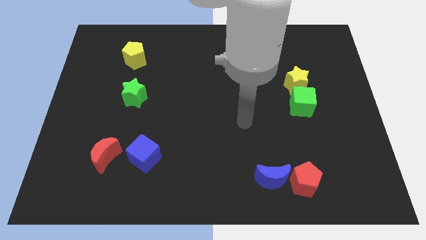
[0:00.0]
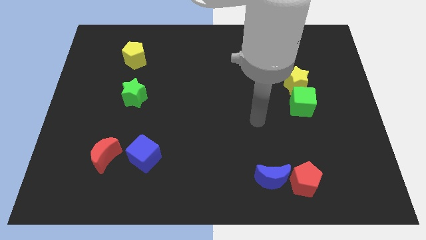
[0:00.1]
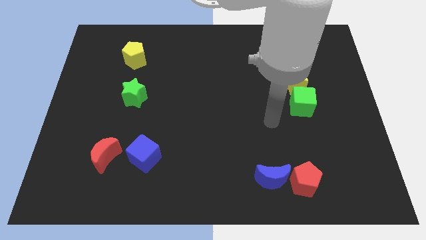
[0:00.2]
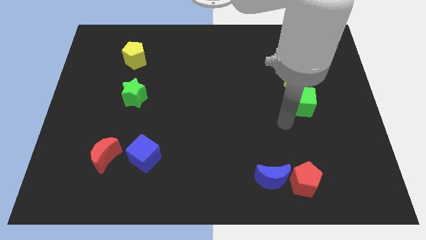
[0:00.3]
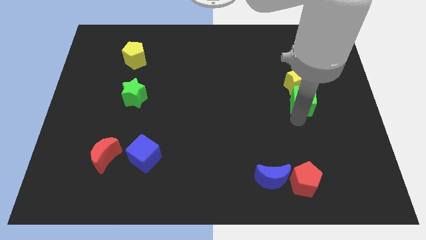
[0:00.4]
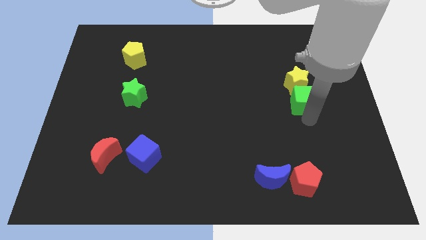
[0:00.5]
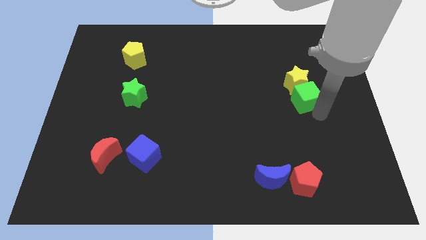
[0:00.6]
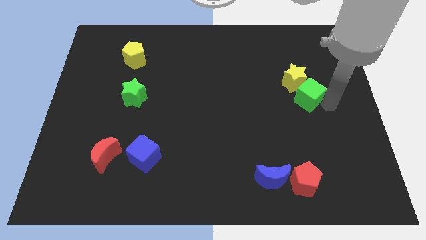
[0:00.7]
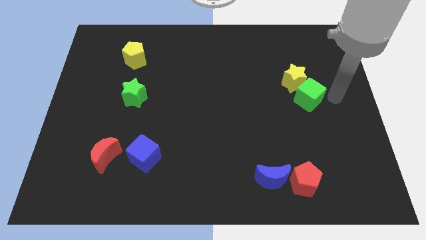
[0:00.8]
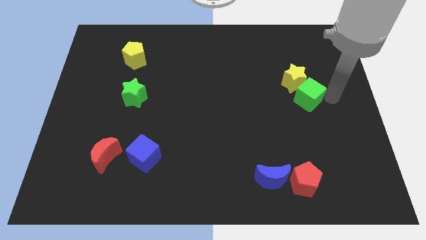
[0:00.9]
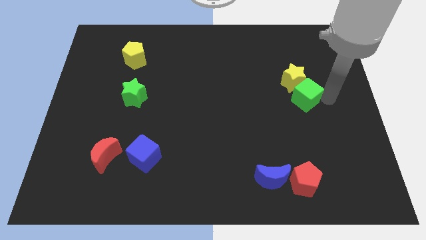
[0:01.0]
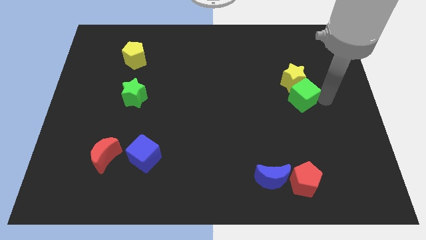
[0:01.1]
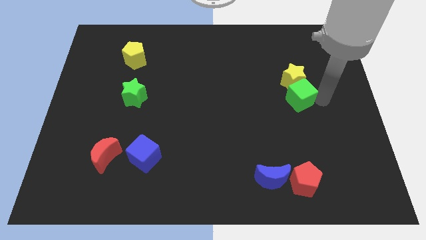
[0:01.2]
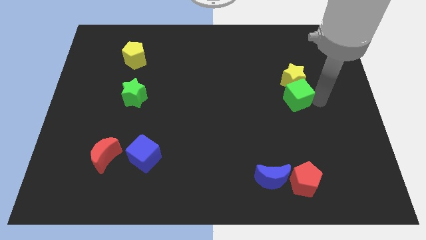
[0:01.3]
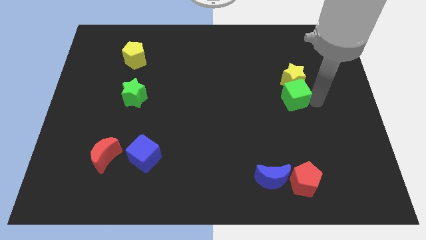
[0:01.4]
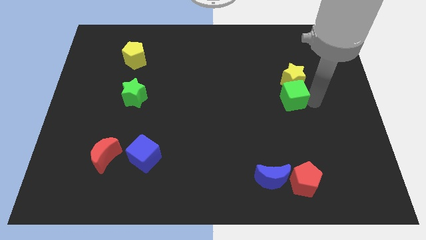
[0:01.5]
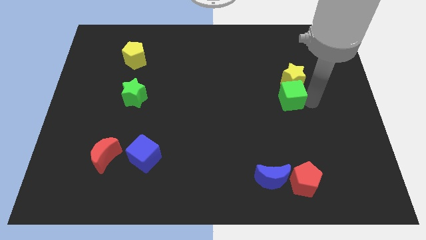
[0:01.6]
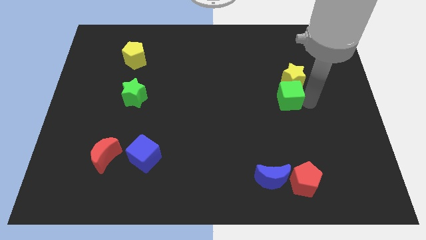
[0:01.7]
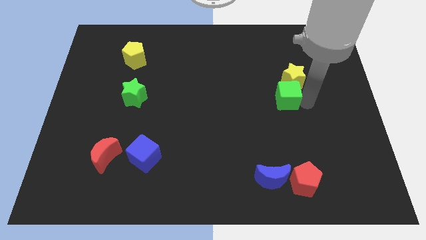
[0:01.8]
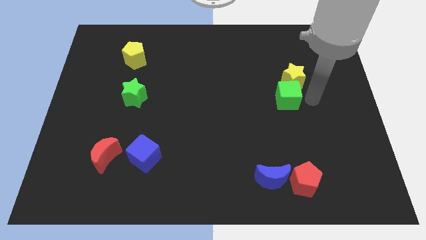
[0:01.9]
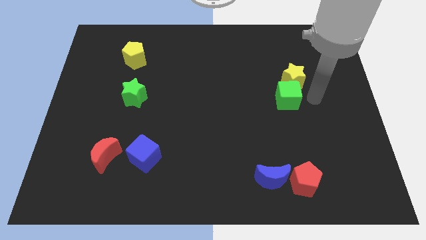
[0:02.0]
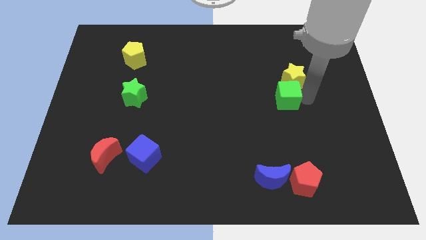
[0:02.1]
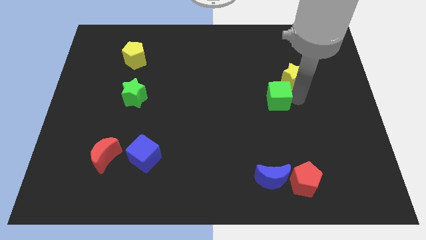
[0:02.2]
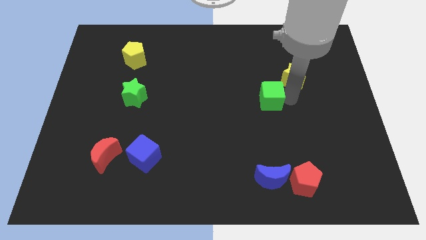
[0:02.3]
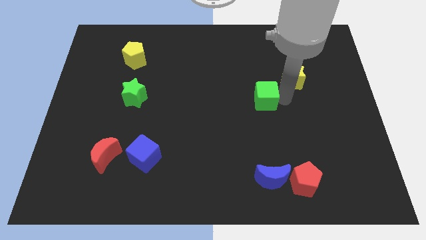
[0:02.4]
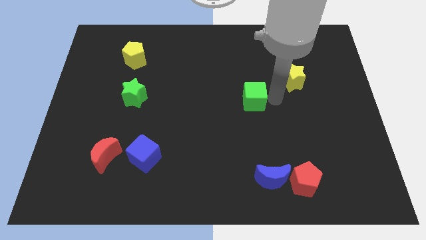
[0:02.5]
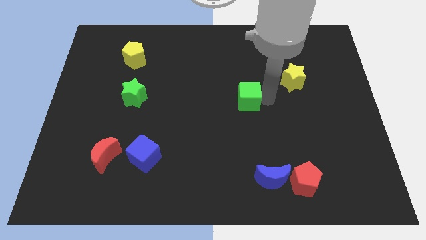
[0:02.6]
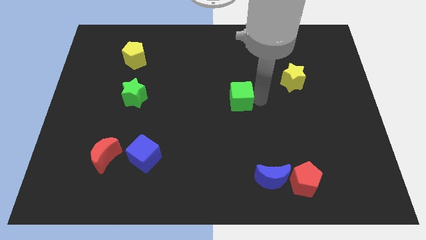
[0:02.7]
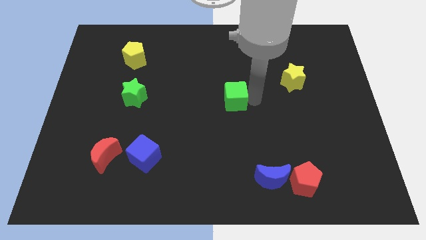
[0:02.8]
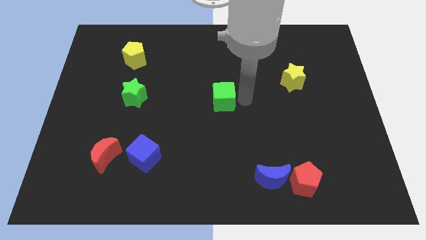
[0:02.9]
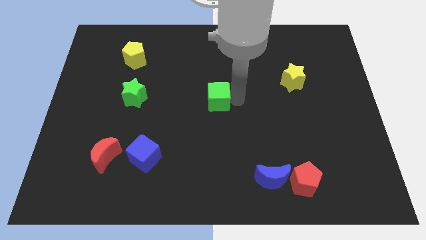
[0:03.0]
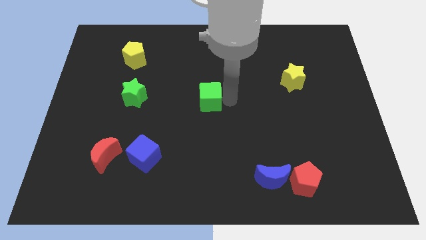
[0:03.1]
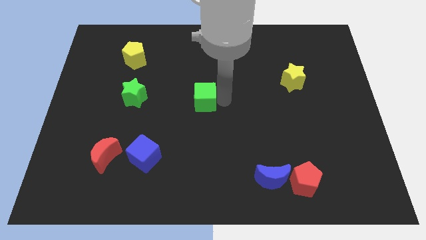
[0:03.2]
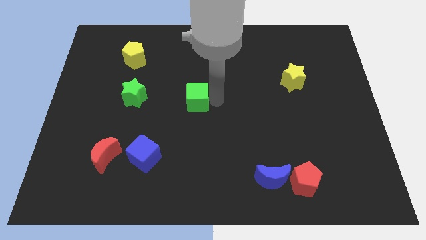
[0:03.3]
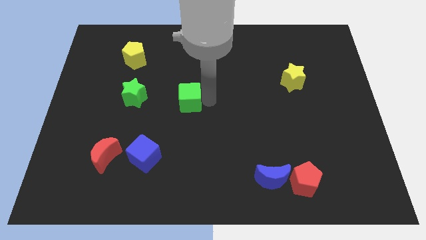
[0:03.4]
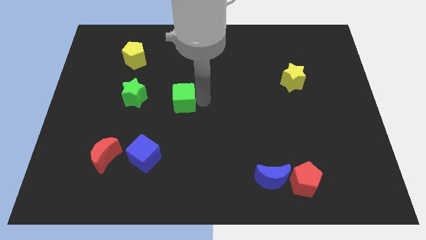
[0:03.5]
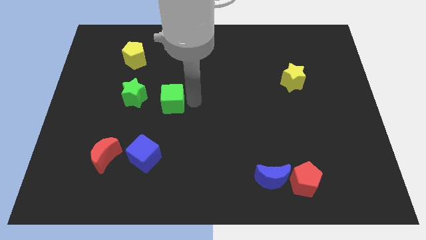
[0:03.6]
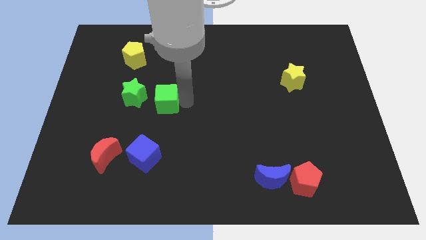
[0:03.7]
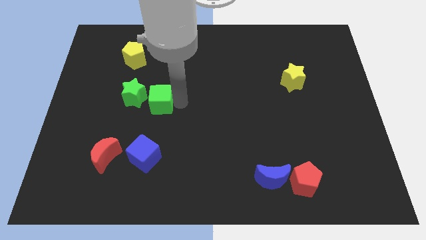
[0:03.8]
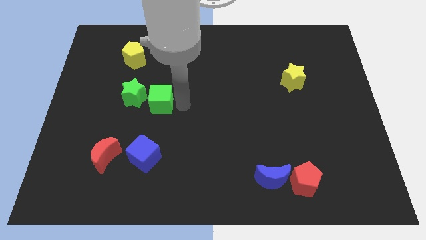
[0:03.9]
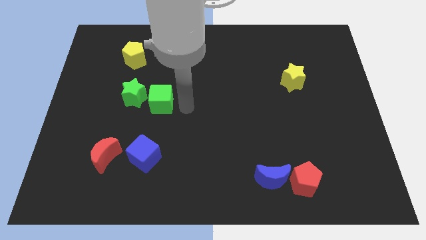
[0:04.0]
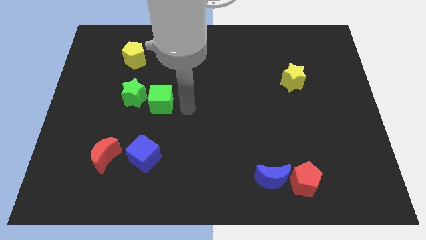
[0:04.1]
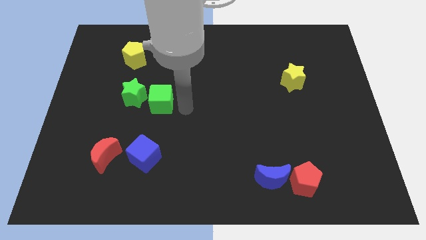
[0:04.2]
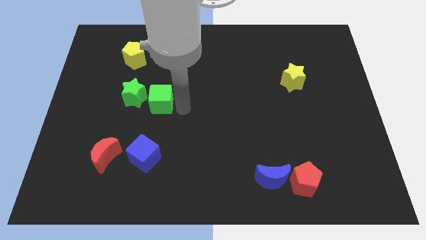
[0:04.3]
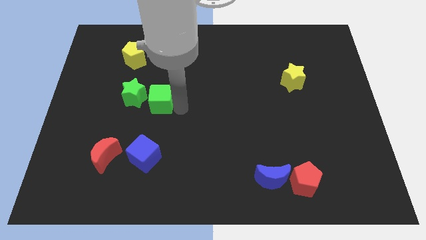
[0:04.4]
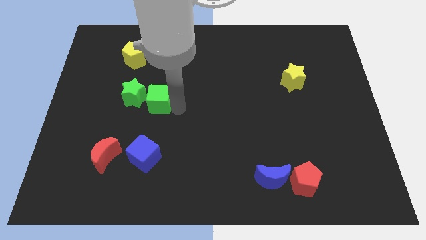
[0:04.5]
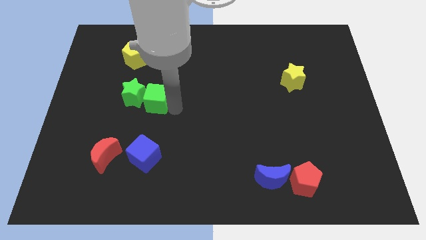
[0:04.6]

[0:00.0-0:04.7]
put the green cube to the green star

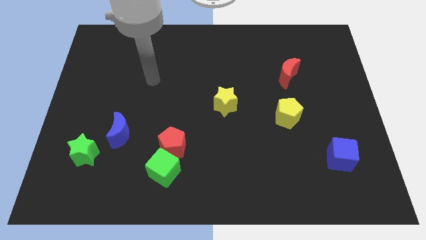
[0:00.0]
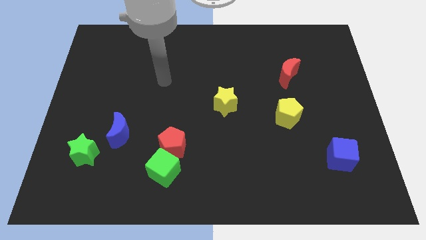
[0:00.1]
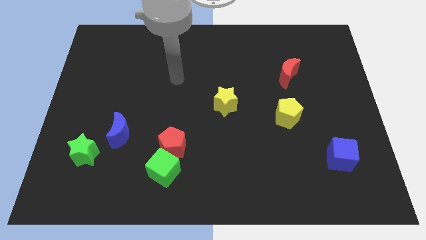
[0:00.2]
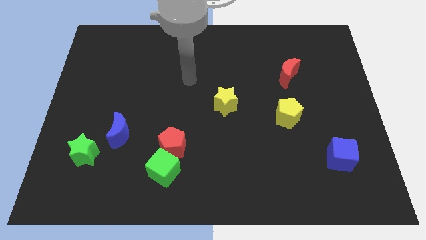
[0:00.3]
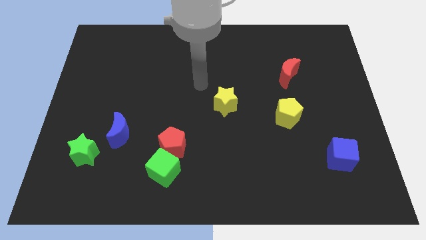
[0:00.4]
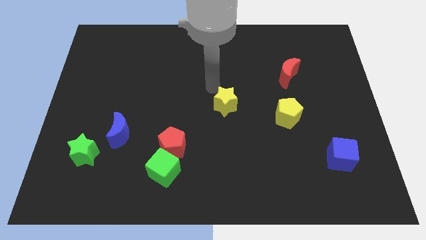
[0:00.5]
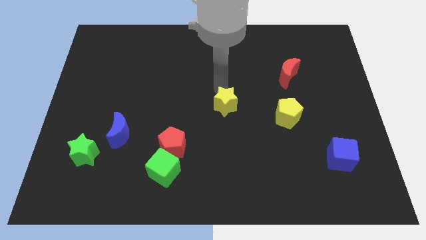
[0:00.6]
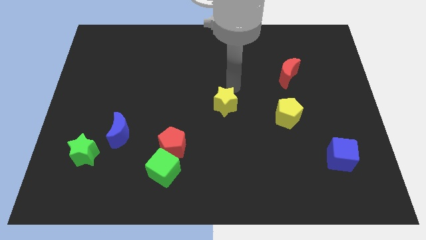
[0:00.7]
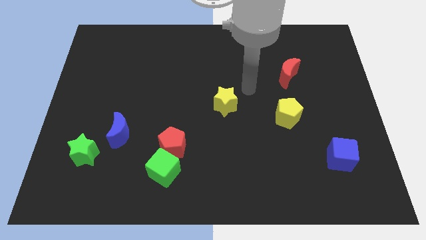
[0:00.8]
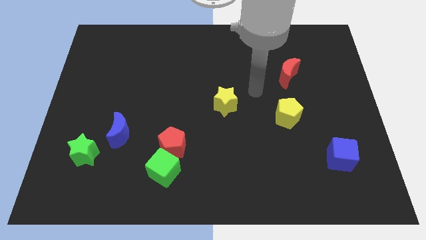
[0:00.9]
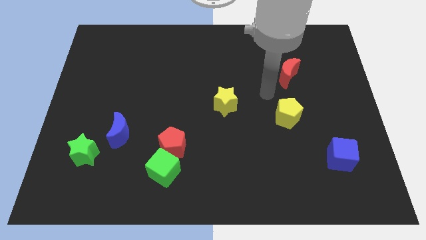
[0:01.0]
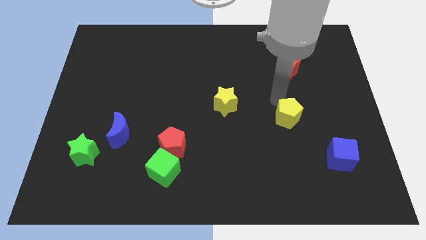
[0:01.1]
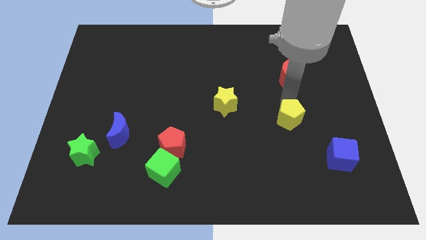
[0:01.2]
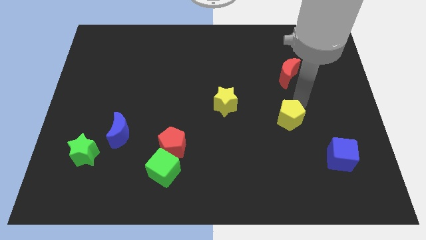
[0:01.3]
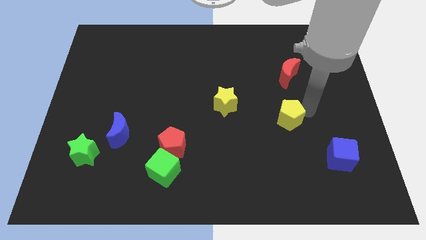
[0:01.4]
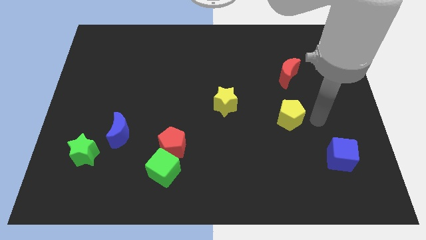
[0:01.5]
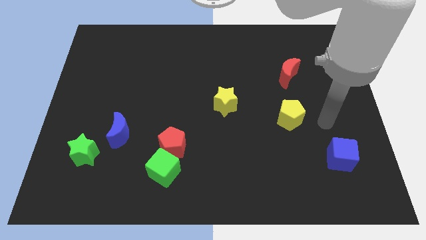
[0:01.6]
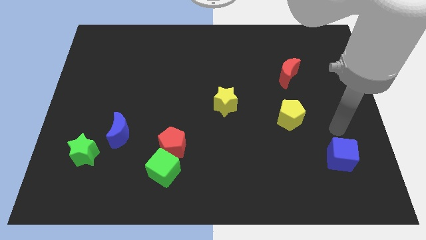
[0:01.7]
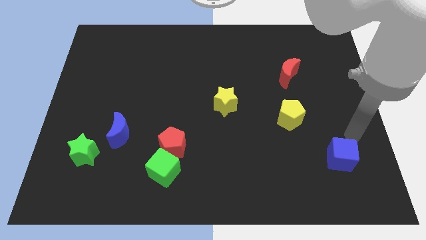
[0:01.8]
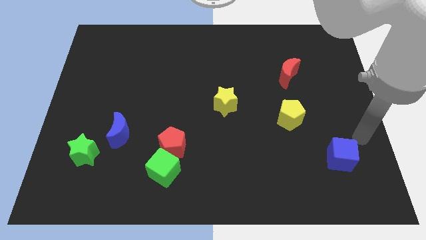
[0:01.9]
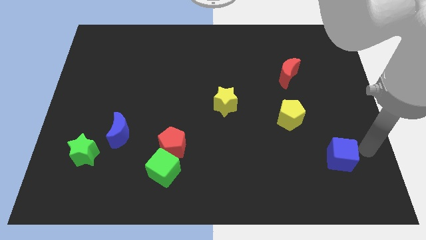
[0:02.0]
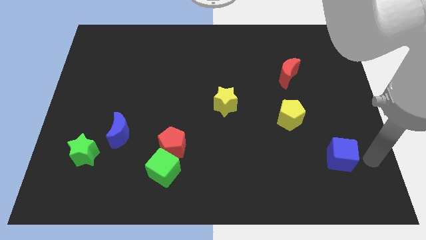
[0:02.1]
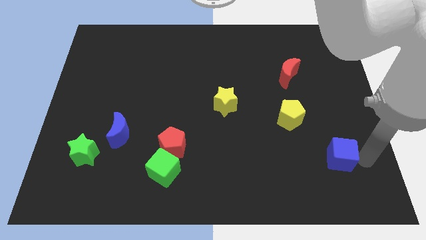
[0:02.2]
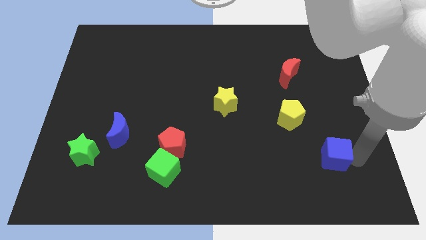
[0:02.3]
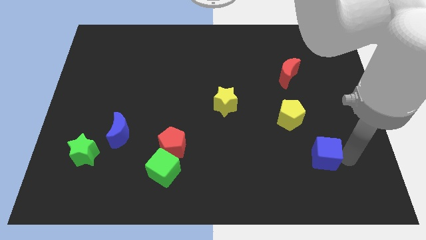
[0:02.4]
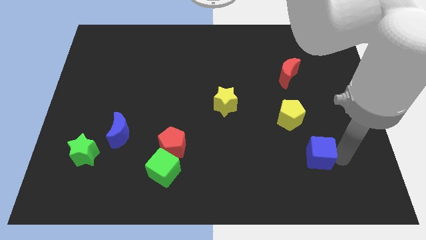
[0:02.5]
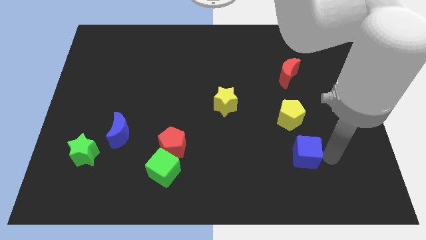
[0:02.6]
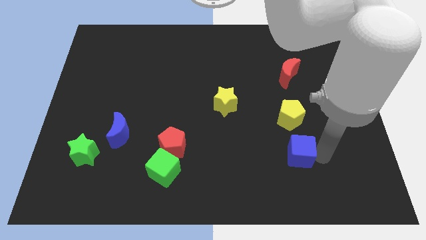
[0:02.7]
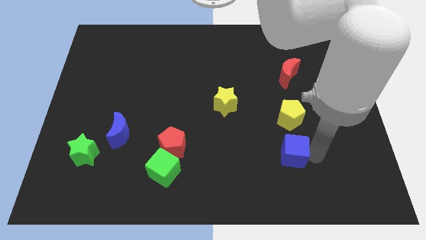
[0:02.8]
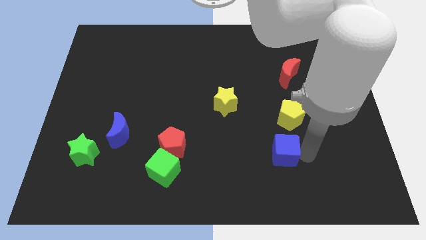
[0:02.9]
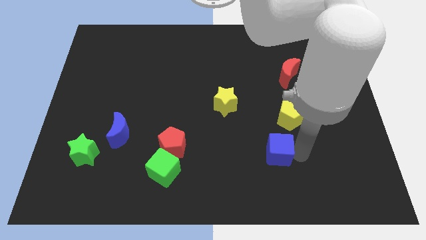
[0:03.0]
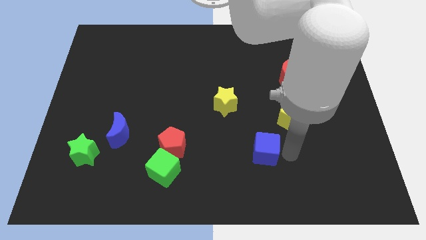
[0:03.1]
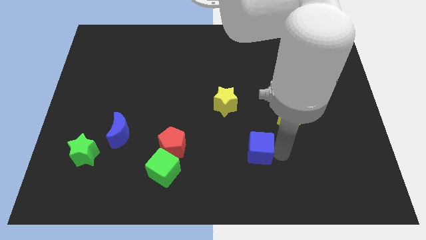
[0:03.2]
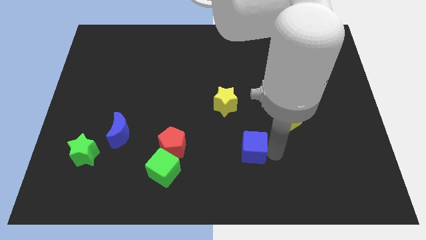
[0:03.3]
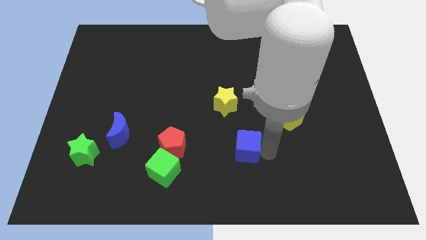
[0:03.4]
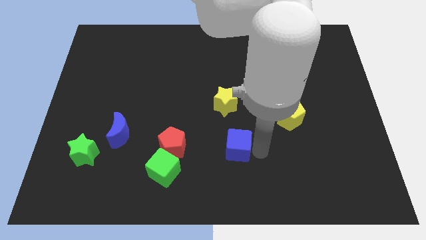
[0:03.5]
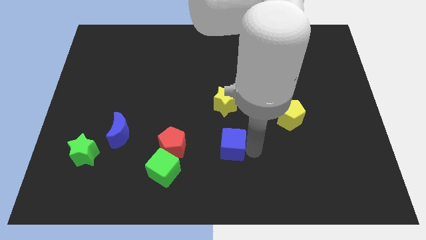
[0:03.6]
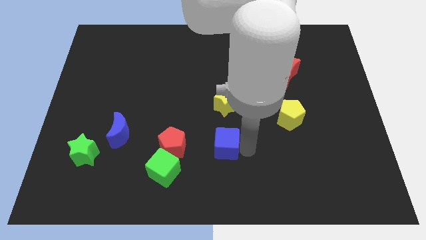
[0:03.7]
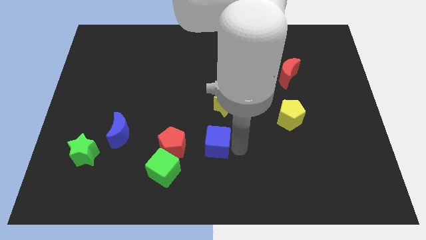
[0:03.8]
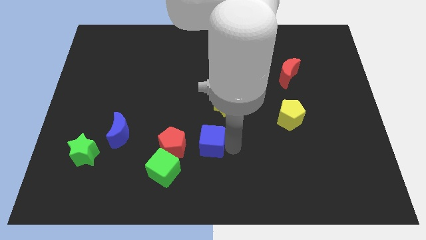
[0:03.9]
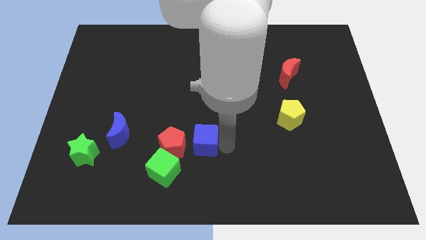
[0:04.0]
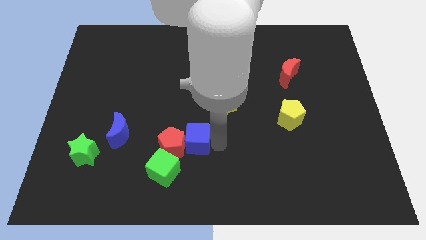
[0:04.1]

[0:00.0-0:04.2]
push the blue cube next to the red pentagon
